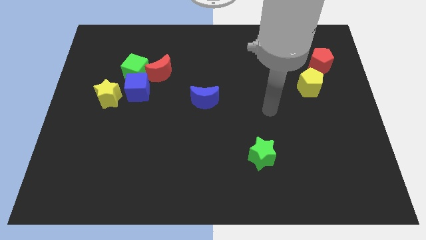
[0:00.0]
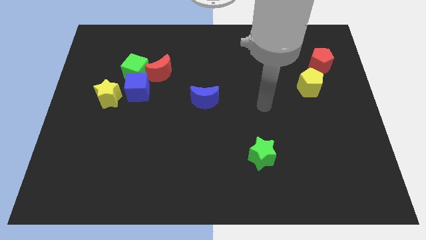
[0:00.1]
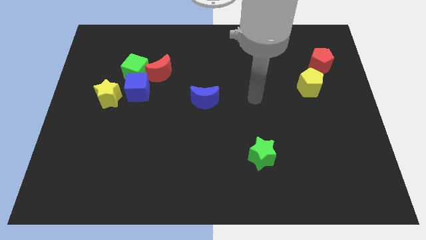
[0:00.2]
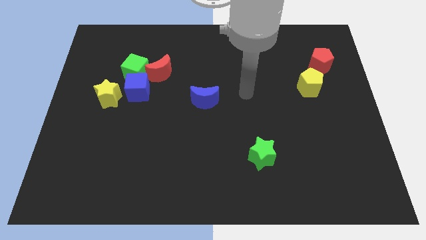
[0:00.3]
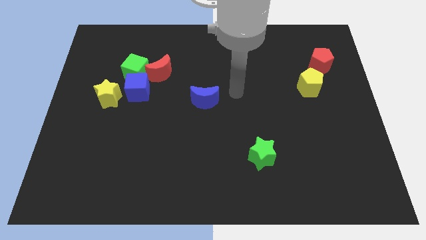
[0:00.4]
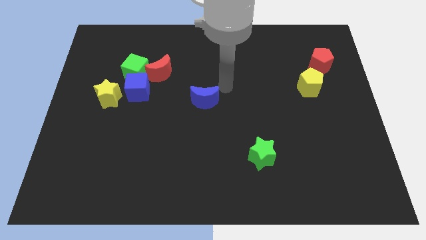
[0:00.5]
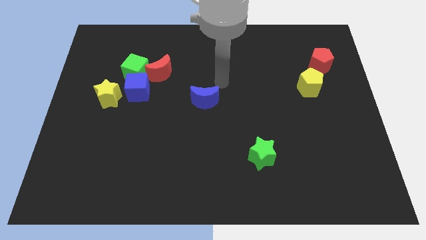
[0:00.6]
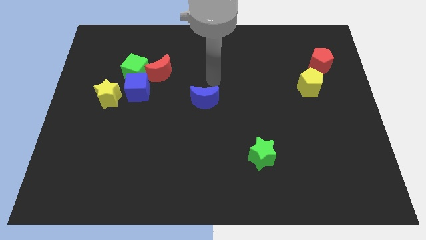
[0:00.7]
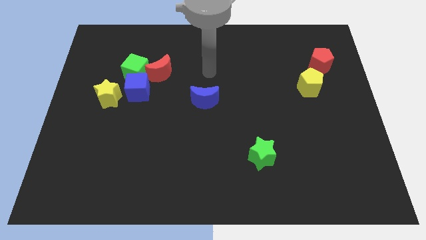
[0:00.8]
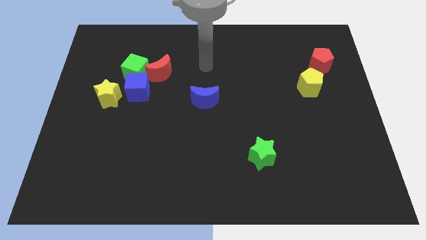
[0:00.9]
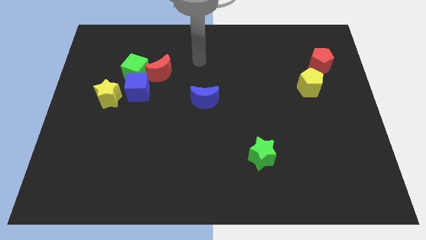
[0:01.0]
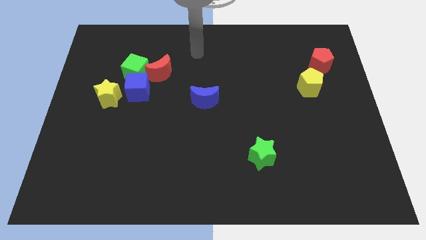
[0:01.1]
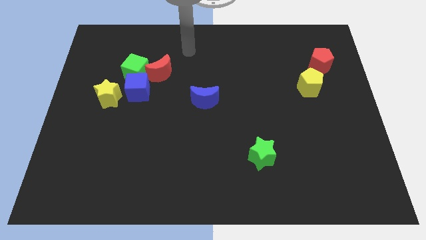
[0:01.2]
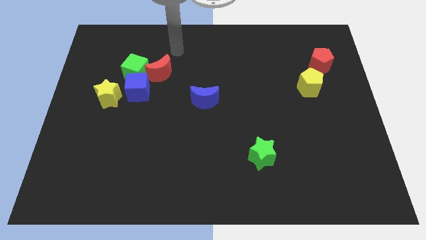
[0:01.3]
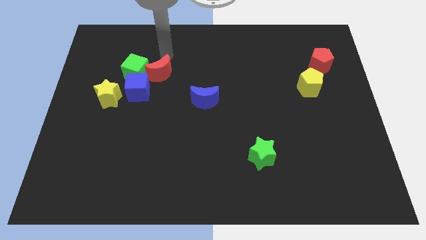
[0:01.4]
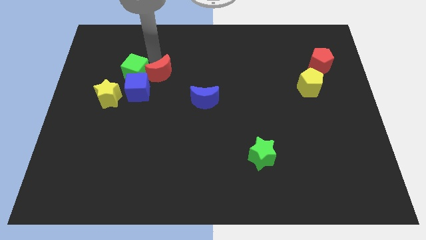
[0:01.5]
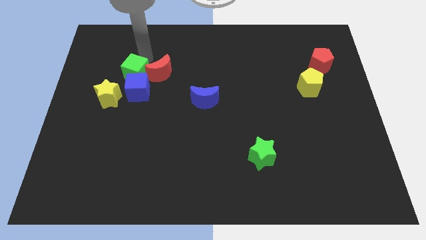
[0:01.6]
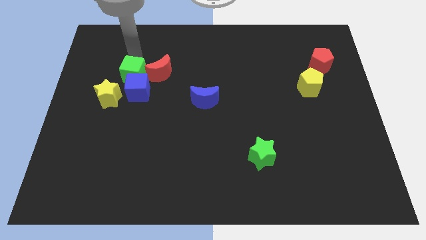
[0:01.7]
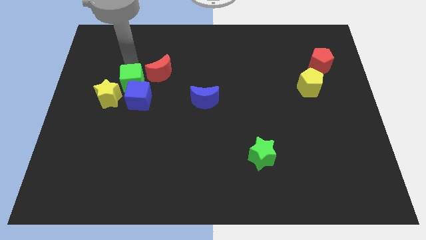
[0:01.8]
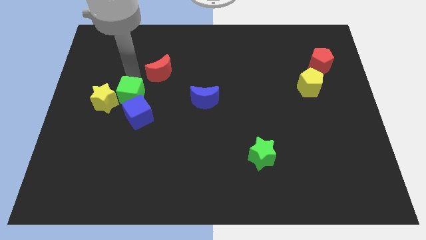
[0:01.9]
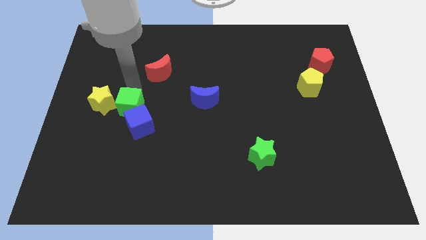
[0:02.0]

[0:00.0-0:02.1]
pull the blue cube apart from the green cube, yellow star, and red moon

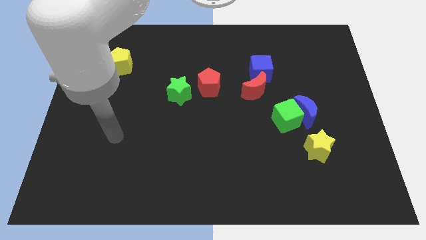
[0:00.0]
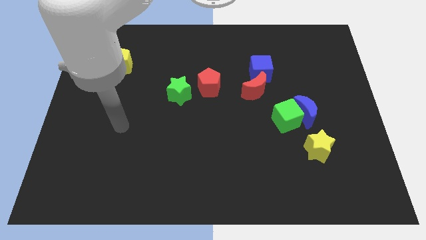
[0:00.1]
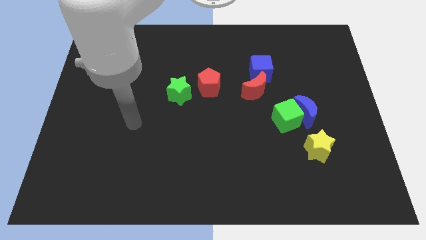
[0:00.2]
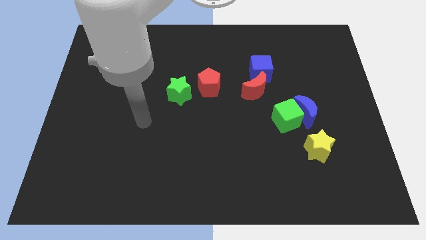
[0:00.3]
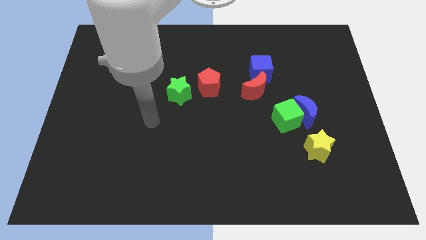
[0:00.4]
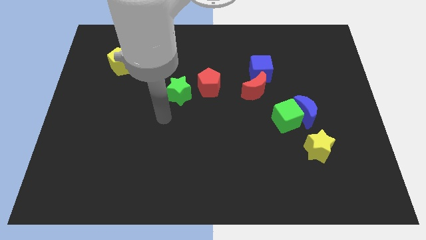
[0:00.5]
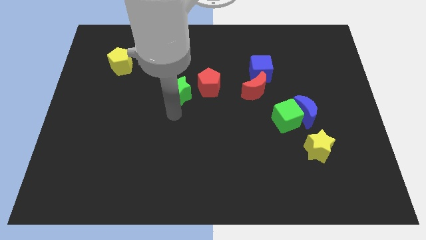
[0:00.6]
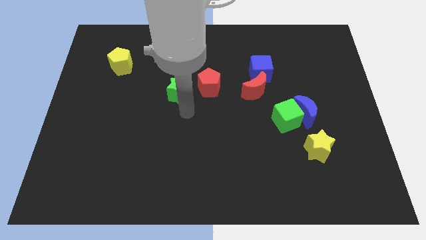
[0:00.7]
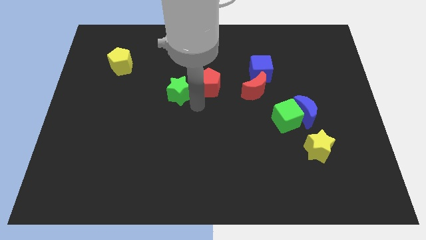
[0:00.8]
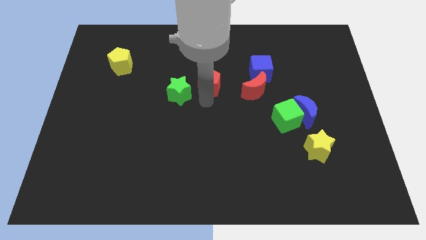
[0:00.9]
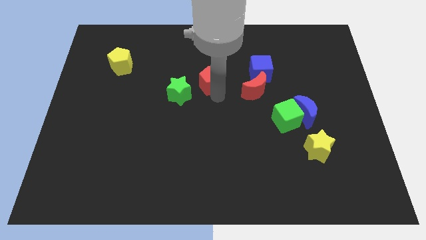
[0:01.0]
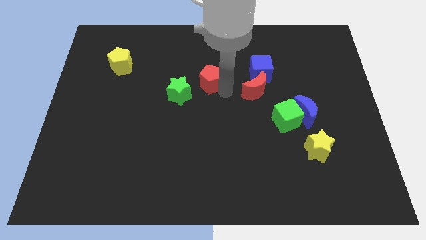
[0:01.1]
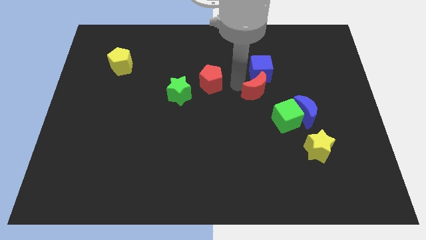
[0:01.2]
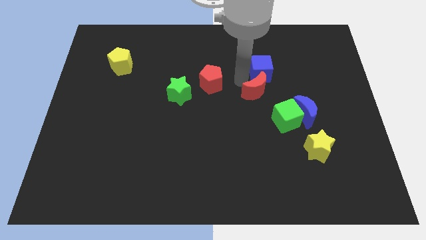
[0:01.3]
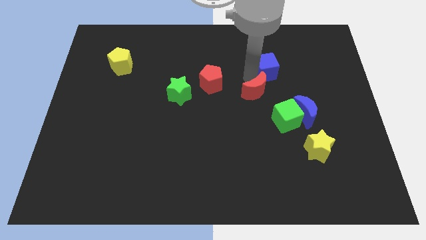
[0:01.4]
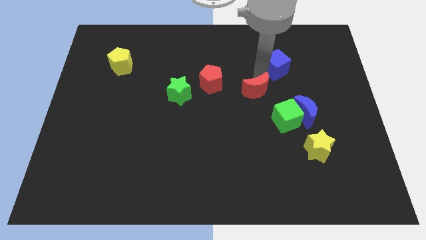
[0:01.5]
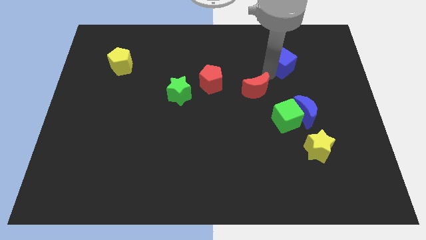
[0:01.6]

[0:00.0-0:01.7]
separate the red moon from the blue cube

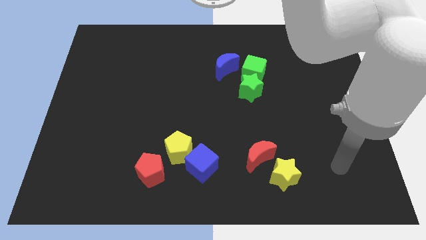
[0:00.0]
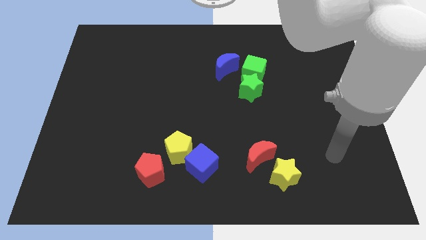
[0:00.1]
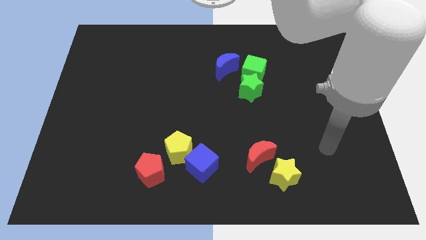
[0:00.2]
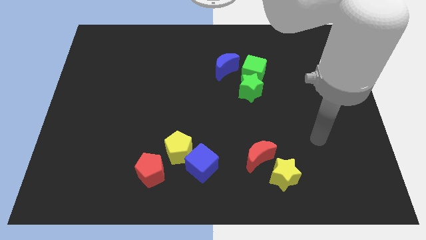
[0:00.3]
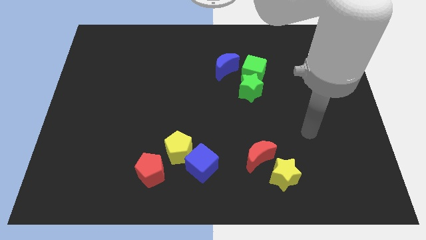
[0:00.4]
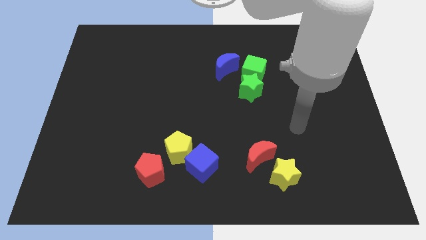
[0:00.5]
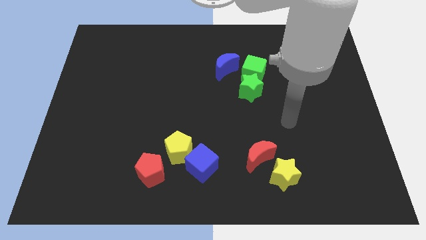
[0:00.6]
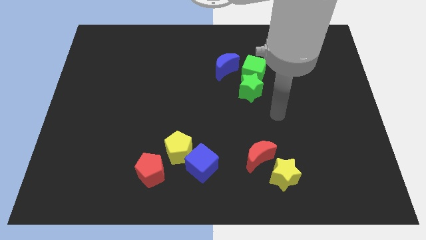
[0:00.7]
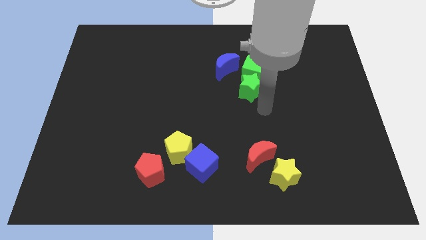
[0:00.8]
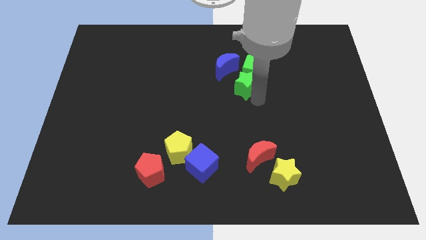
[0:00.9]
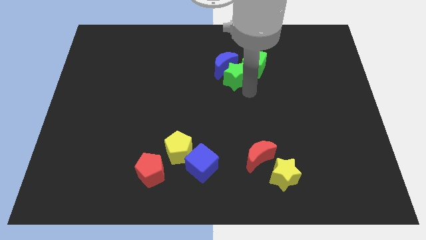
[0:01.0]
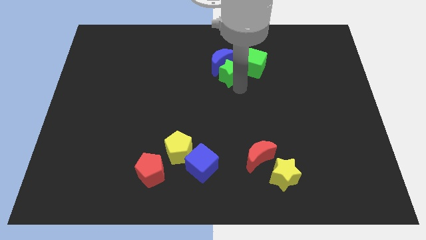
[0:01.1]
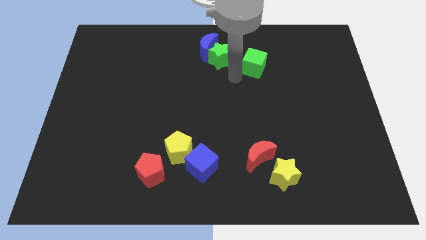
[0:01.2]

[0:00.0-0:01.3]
move the green cube away from the green star and blue moon

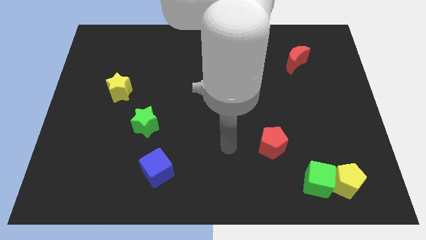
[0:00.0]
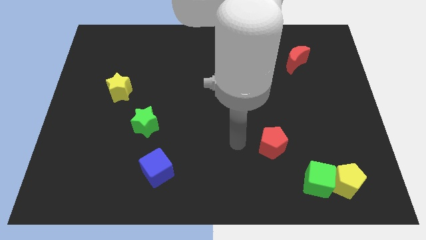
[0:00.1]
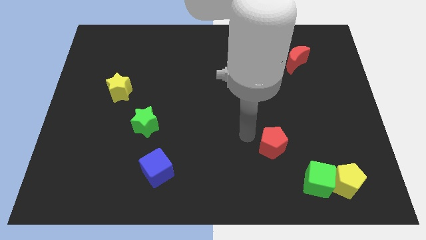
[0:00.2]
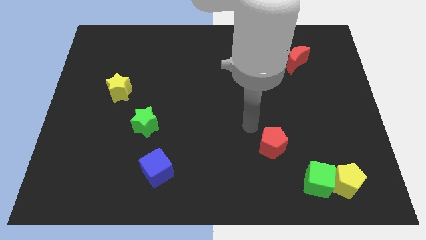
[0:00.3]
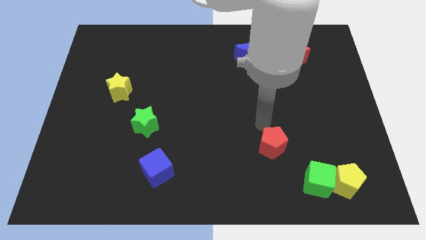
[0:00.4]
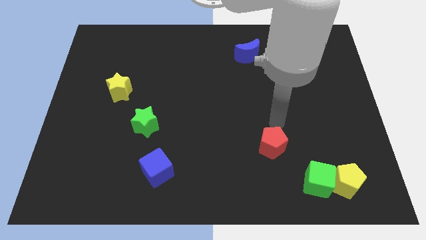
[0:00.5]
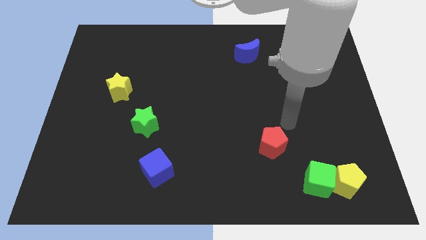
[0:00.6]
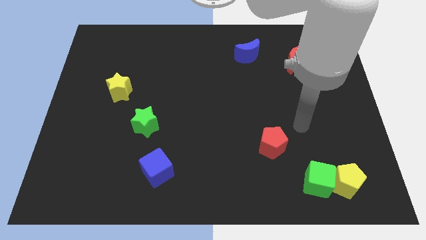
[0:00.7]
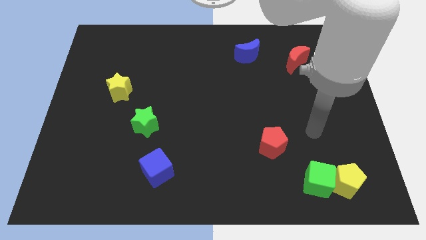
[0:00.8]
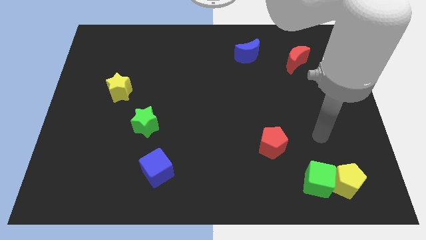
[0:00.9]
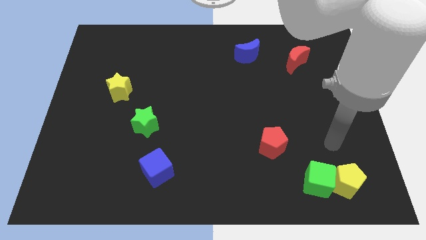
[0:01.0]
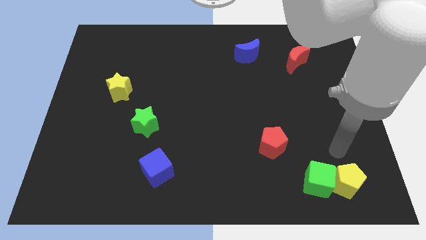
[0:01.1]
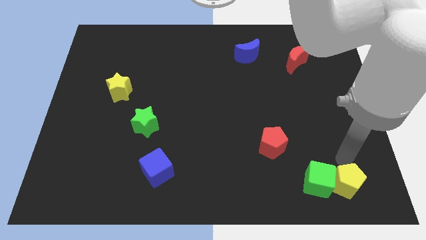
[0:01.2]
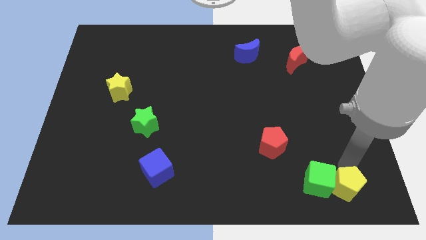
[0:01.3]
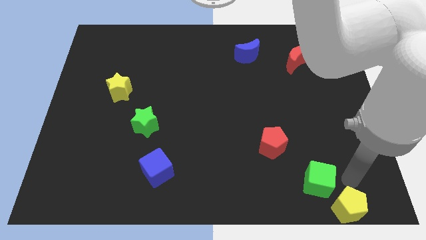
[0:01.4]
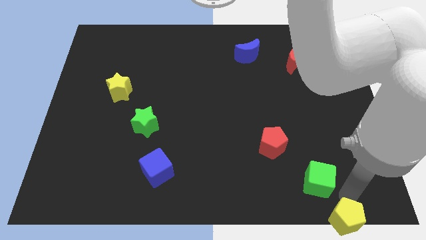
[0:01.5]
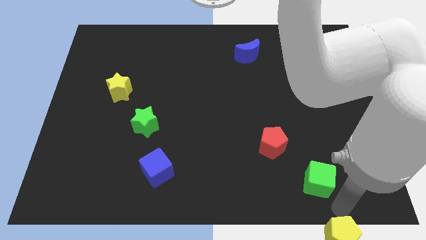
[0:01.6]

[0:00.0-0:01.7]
pull the green cube apart from the yellow pentagon

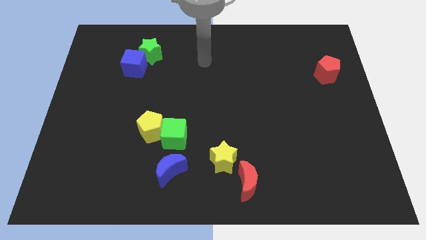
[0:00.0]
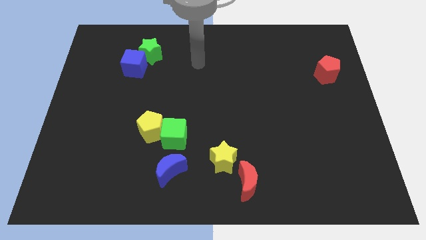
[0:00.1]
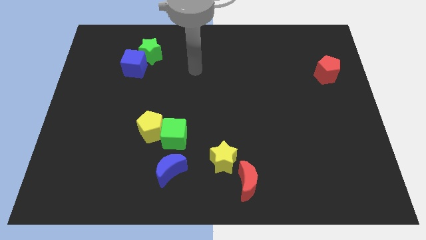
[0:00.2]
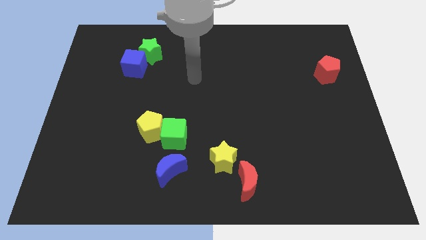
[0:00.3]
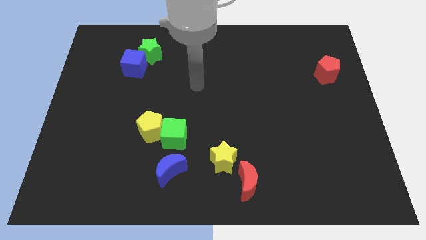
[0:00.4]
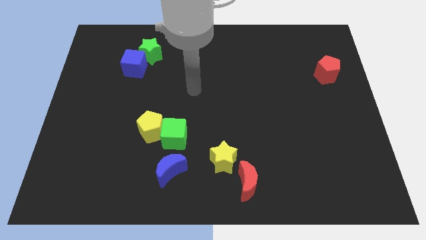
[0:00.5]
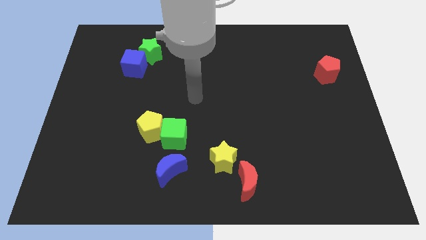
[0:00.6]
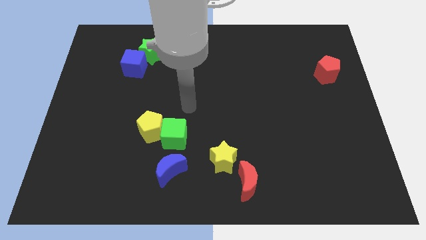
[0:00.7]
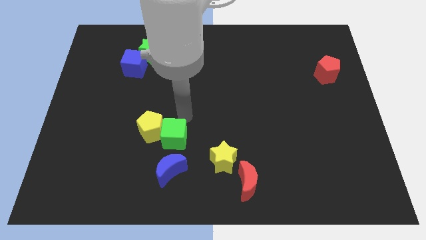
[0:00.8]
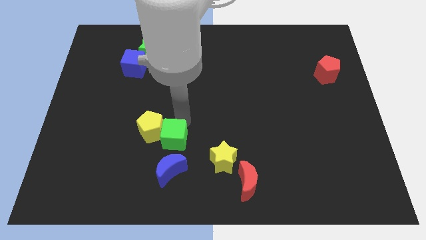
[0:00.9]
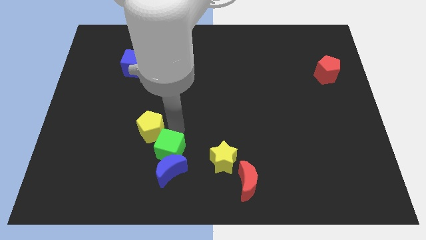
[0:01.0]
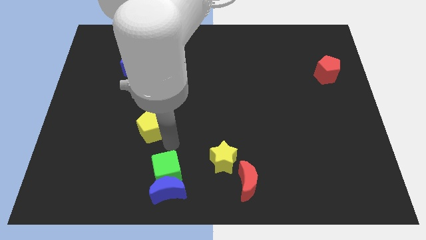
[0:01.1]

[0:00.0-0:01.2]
pull the yellow pentagon apart from the green cube

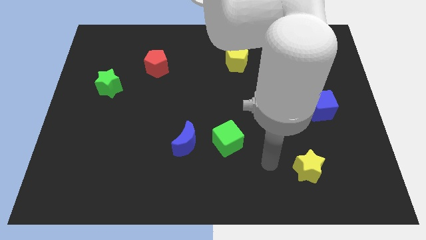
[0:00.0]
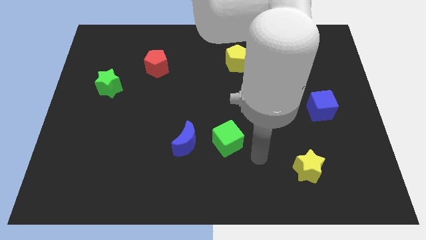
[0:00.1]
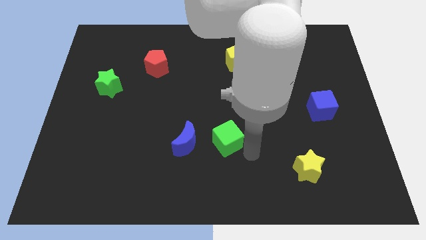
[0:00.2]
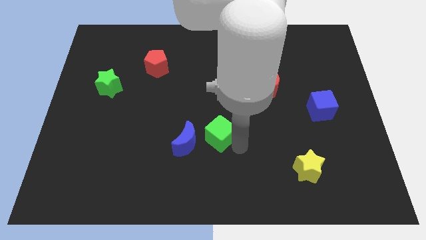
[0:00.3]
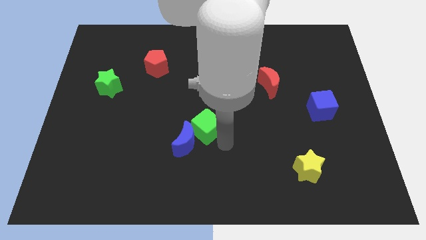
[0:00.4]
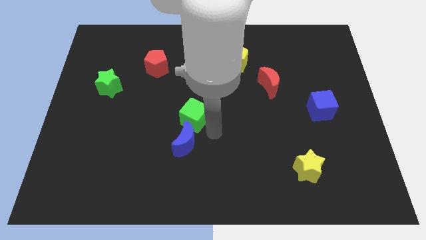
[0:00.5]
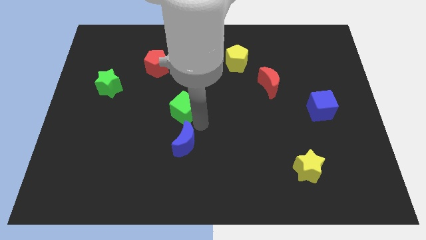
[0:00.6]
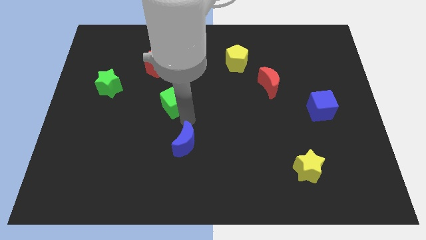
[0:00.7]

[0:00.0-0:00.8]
separate the blue moon from the green cube

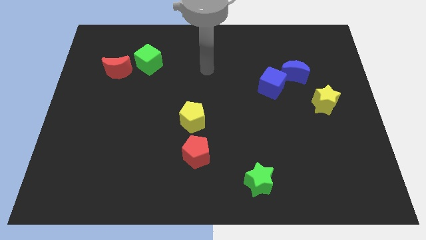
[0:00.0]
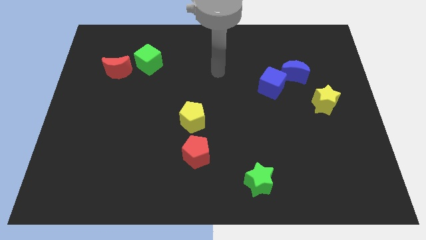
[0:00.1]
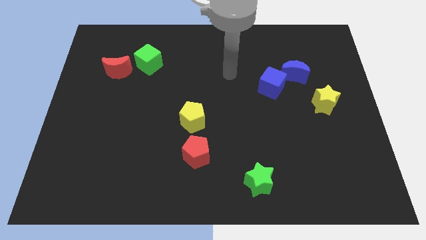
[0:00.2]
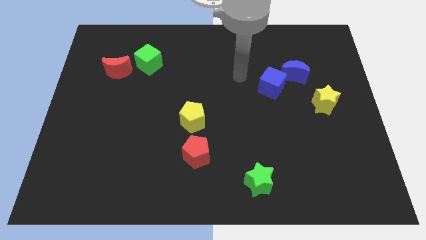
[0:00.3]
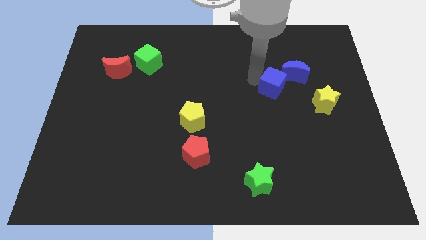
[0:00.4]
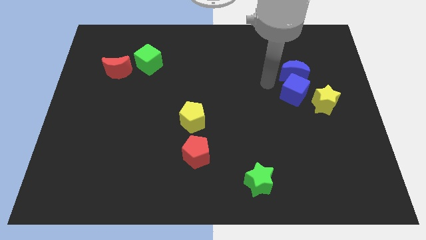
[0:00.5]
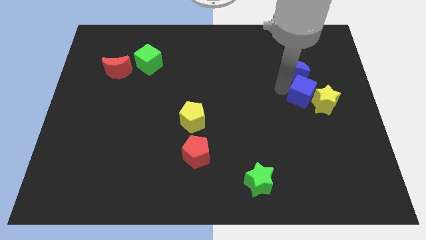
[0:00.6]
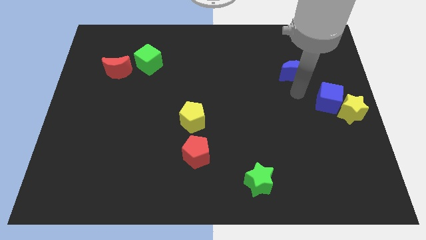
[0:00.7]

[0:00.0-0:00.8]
separate the blue moon from the blue cube
